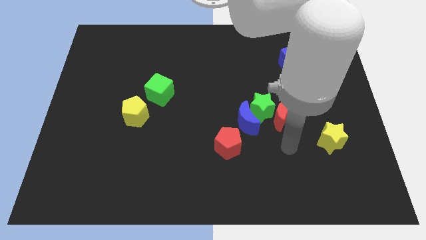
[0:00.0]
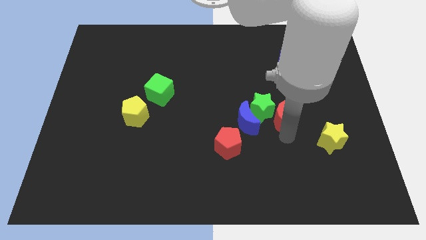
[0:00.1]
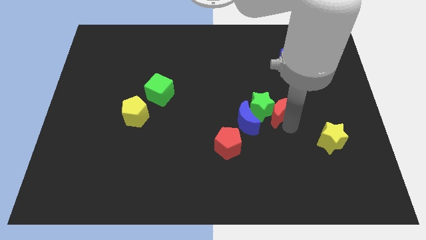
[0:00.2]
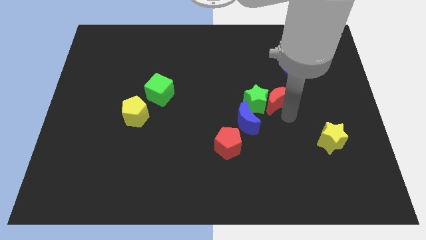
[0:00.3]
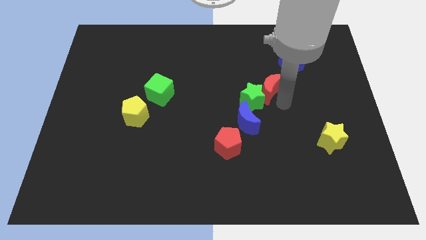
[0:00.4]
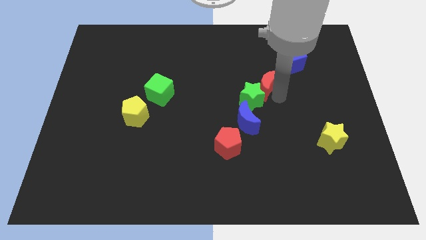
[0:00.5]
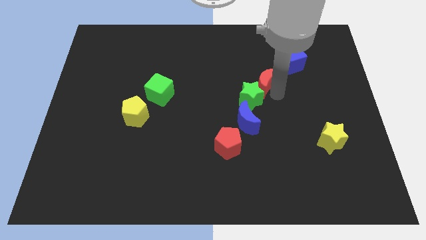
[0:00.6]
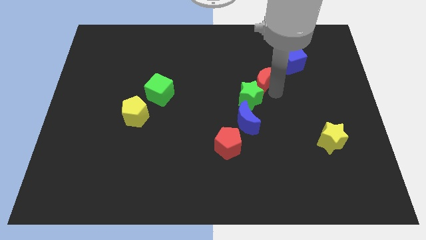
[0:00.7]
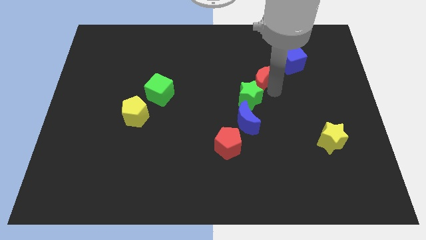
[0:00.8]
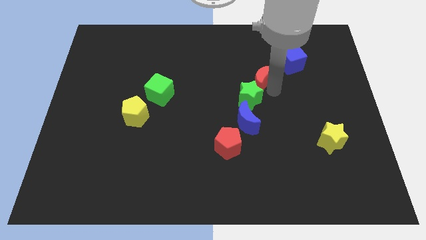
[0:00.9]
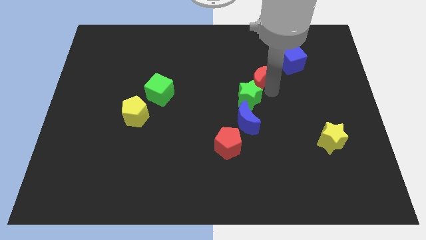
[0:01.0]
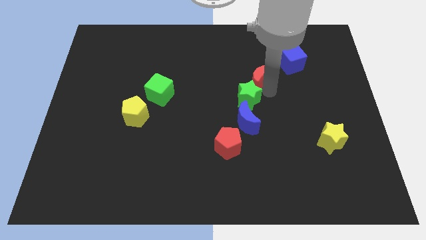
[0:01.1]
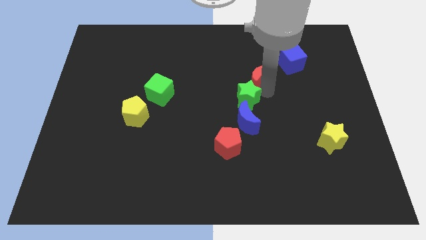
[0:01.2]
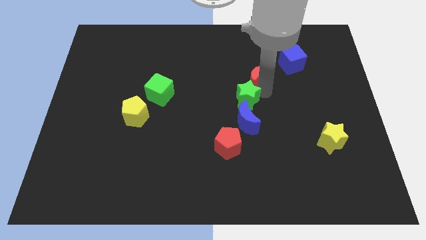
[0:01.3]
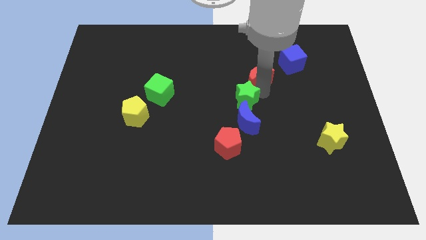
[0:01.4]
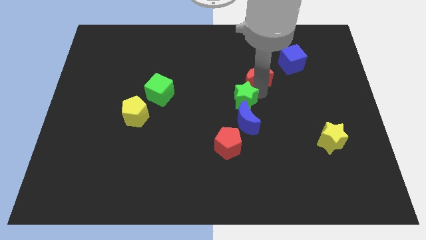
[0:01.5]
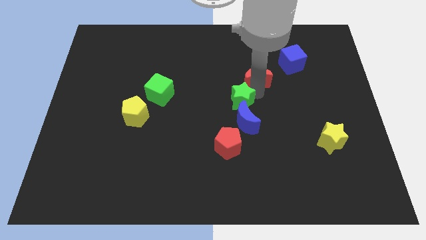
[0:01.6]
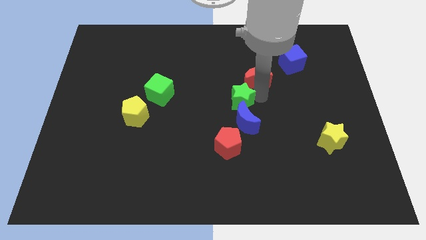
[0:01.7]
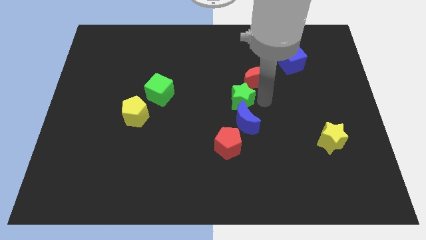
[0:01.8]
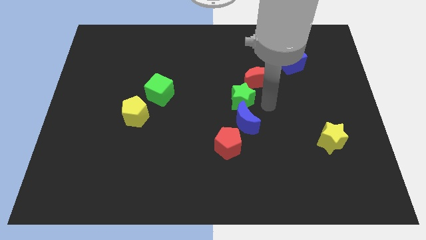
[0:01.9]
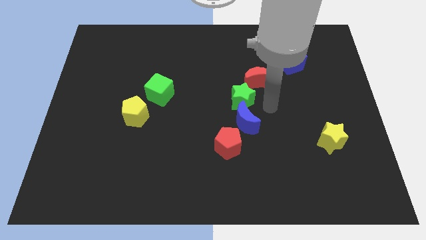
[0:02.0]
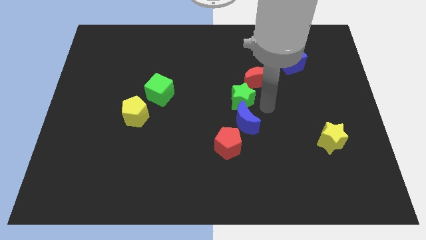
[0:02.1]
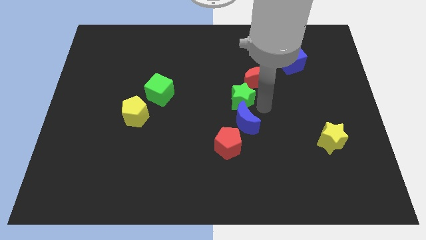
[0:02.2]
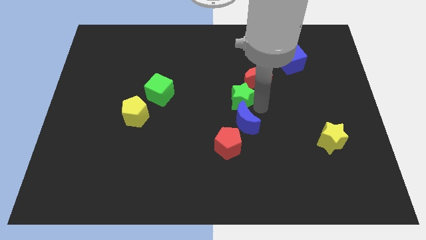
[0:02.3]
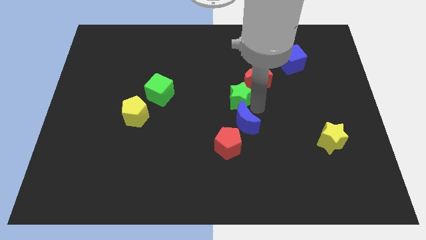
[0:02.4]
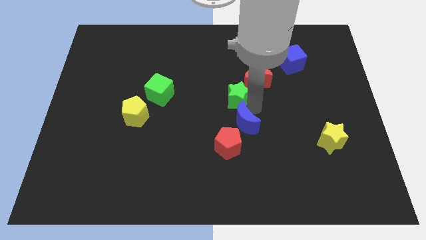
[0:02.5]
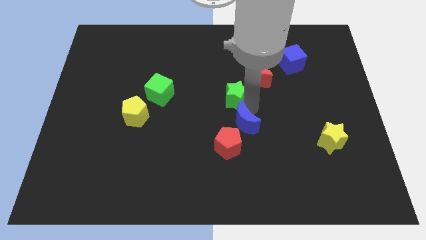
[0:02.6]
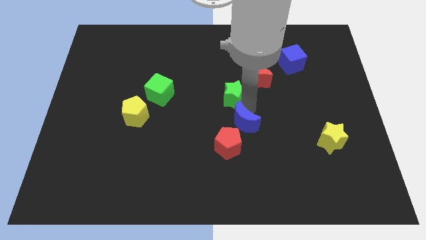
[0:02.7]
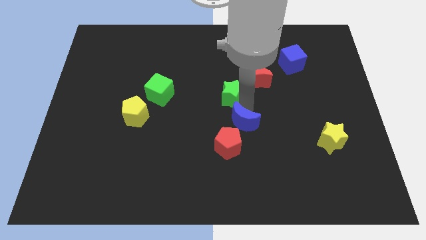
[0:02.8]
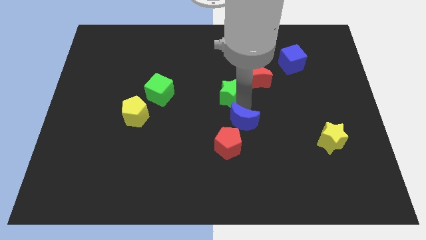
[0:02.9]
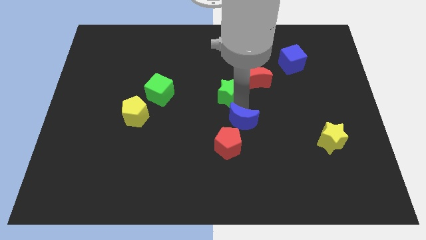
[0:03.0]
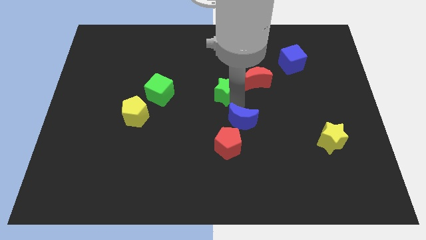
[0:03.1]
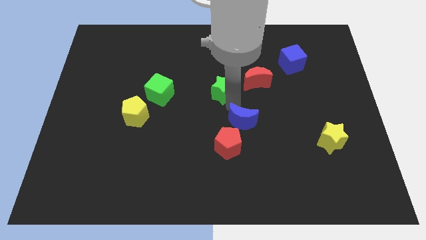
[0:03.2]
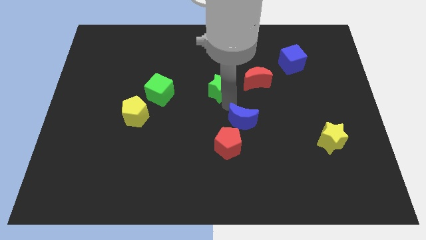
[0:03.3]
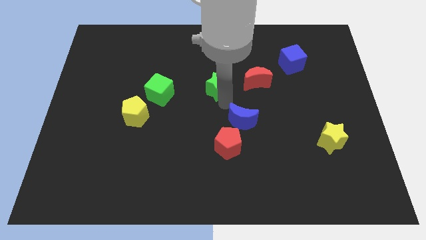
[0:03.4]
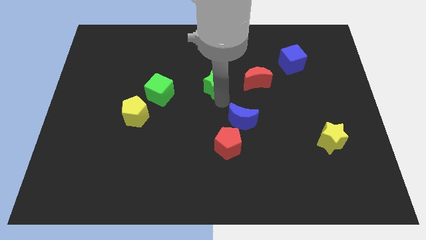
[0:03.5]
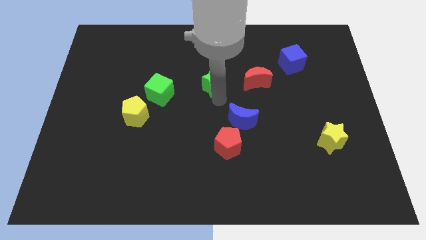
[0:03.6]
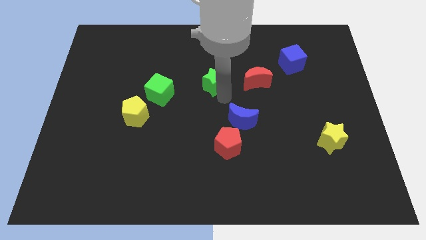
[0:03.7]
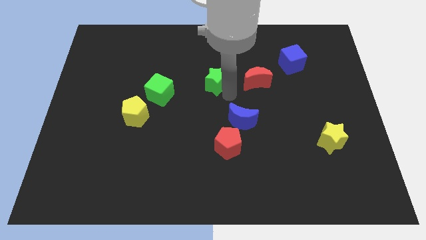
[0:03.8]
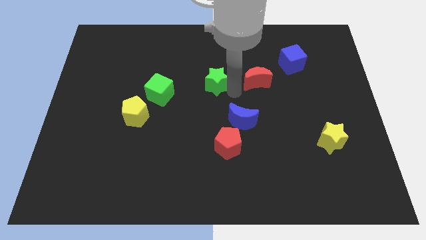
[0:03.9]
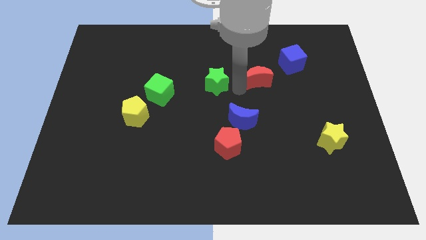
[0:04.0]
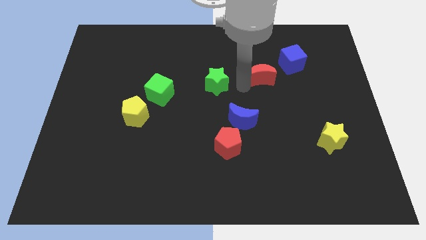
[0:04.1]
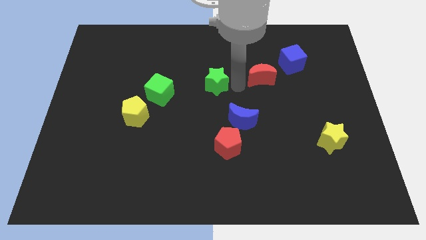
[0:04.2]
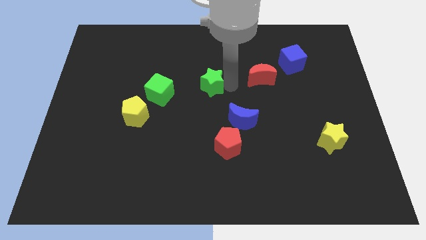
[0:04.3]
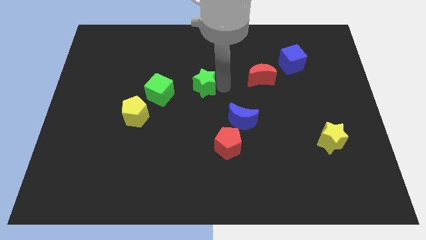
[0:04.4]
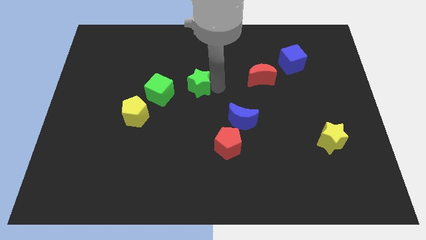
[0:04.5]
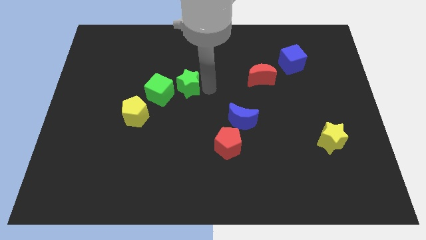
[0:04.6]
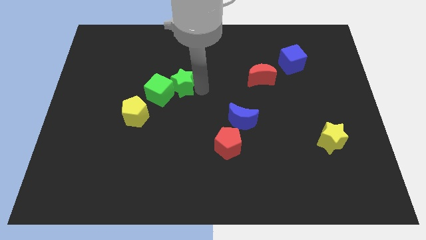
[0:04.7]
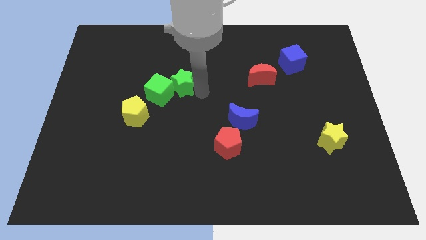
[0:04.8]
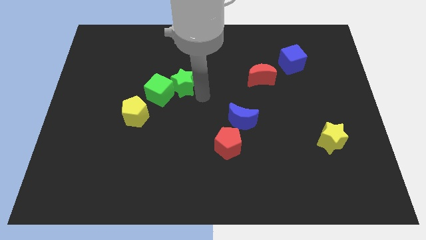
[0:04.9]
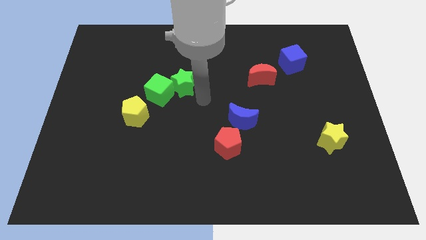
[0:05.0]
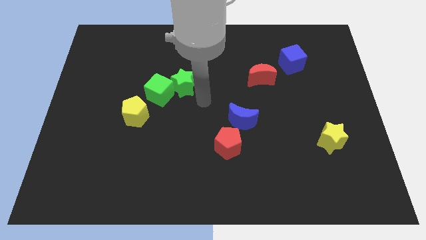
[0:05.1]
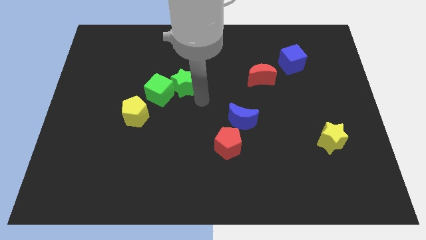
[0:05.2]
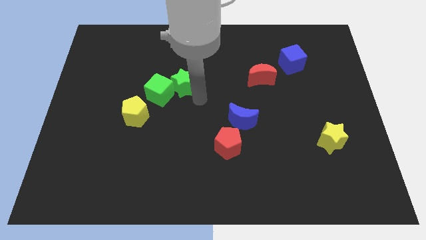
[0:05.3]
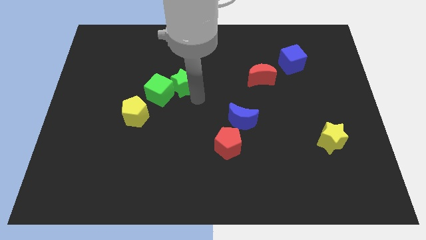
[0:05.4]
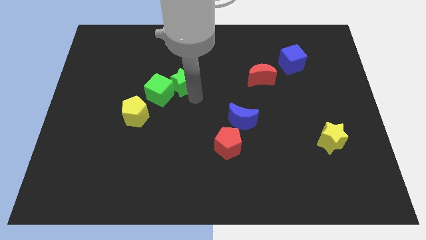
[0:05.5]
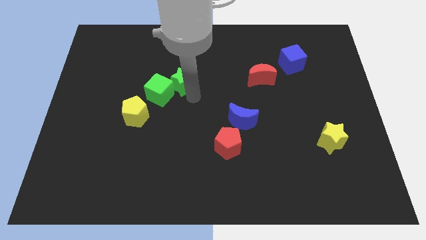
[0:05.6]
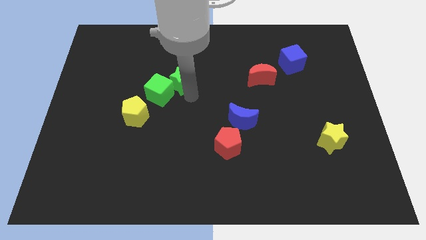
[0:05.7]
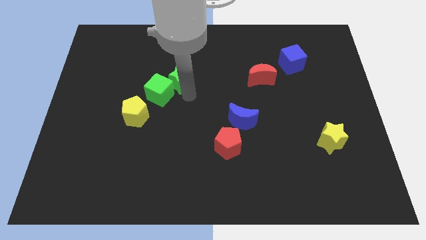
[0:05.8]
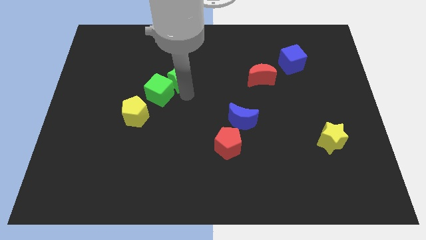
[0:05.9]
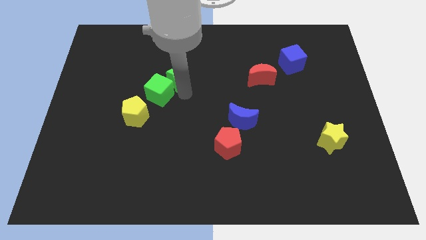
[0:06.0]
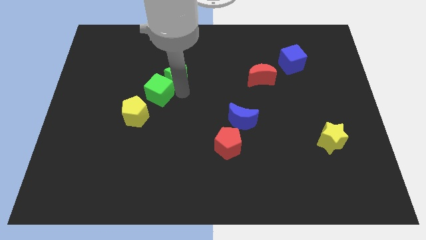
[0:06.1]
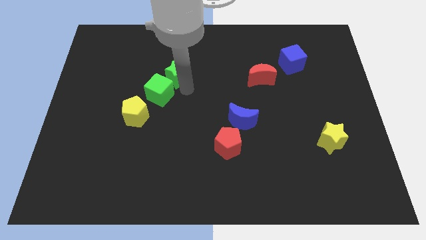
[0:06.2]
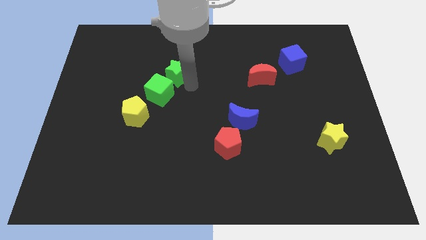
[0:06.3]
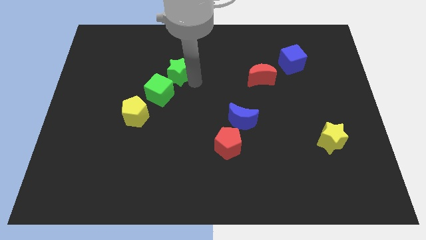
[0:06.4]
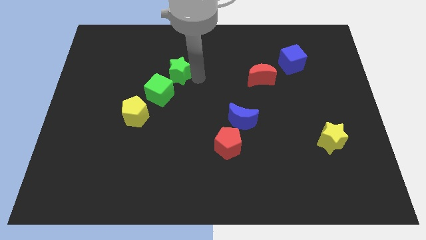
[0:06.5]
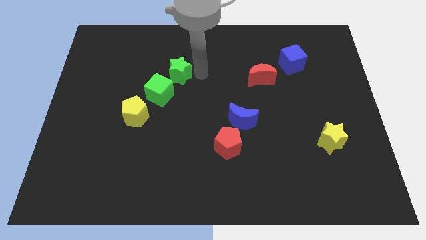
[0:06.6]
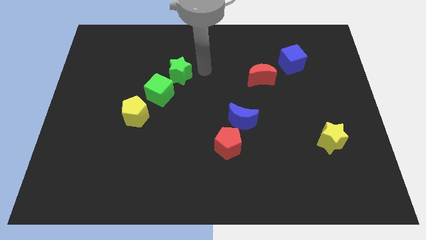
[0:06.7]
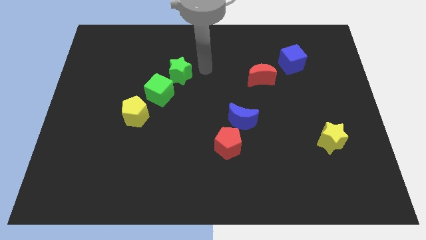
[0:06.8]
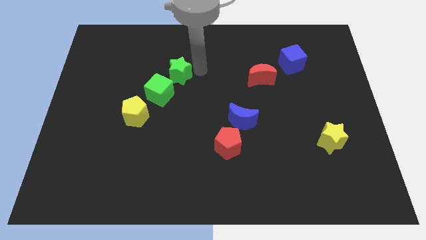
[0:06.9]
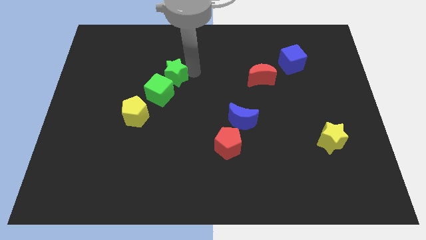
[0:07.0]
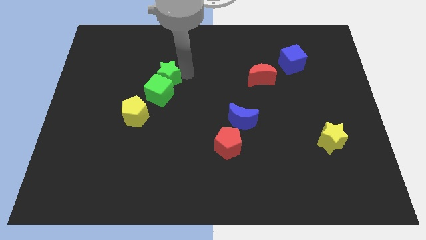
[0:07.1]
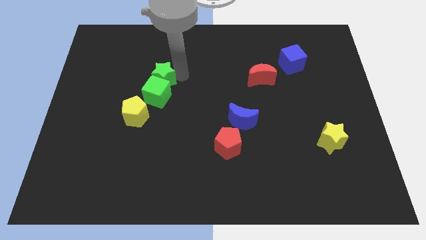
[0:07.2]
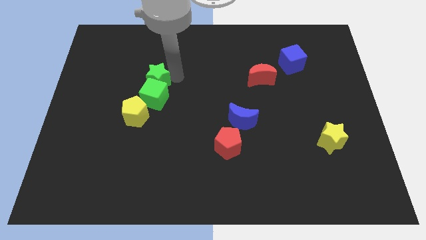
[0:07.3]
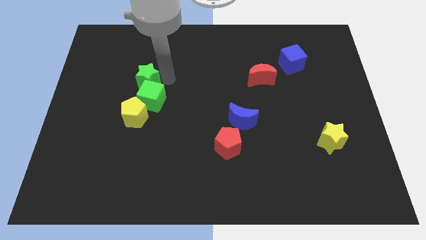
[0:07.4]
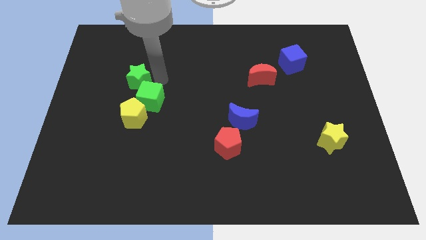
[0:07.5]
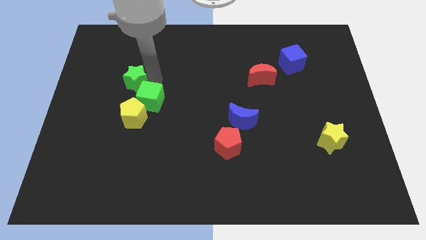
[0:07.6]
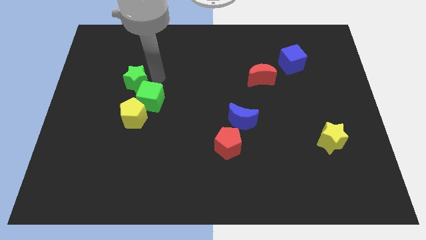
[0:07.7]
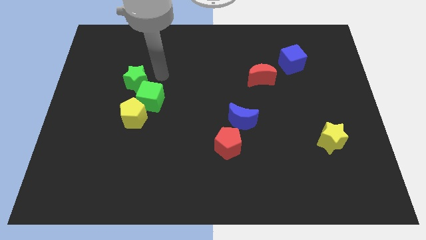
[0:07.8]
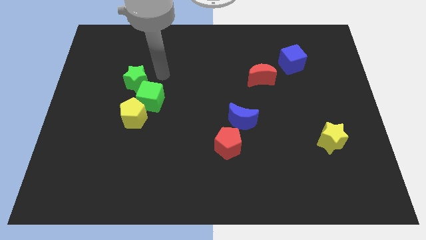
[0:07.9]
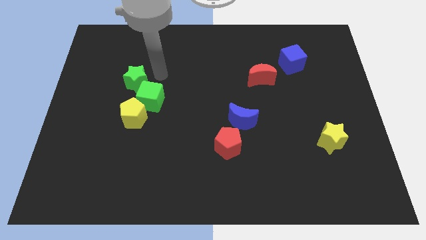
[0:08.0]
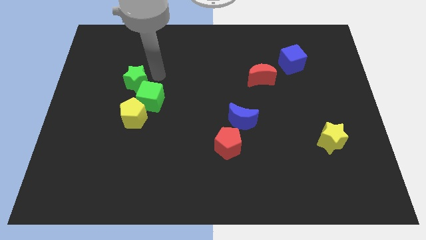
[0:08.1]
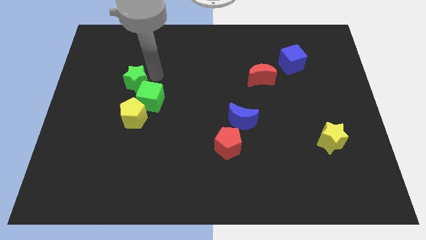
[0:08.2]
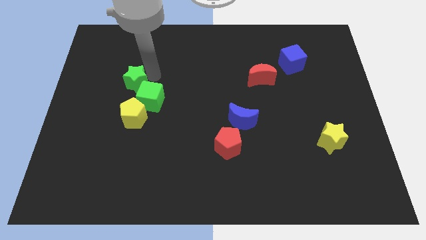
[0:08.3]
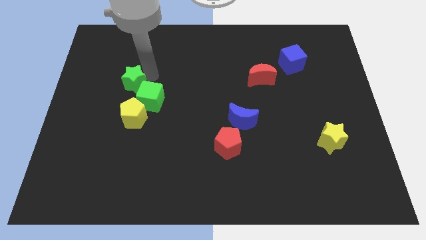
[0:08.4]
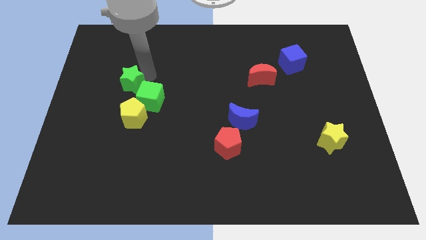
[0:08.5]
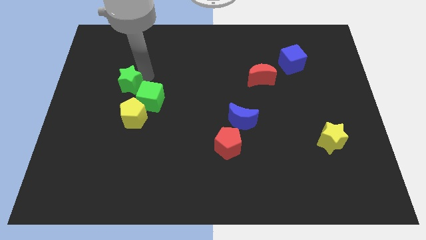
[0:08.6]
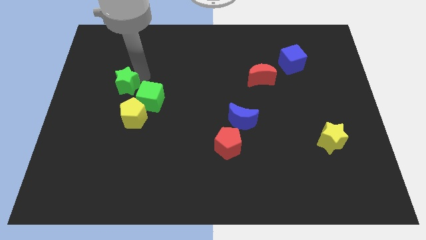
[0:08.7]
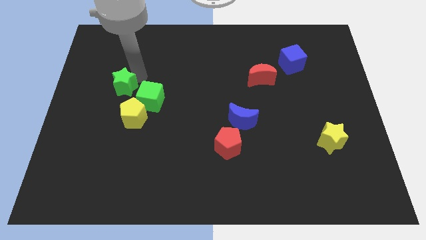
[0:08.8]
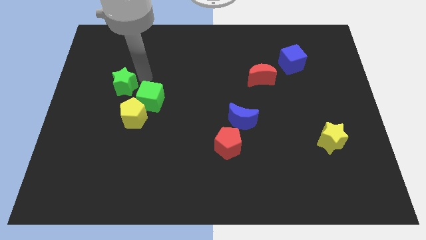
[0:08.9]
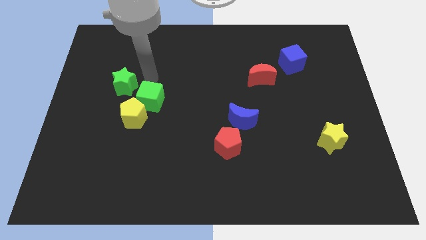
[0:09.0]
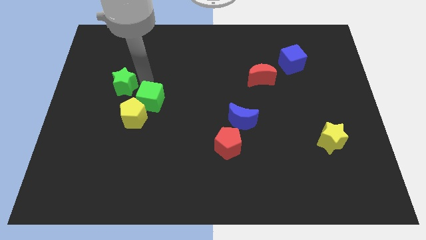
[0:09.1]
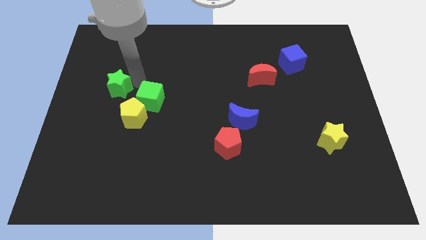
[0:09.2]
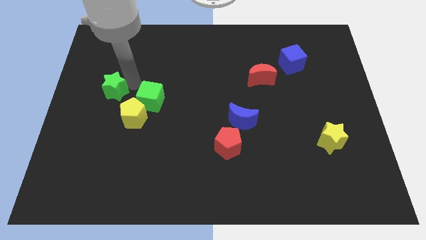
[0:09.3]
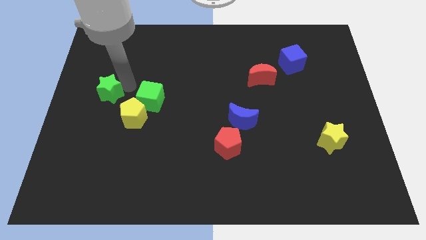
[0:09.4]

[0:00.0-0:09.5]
put the green star to the center left
